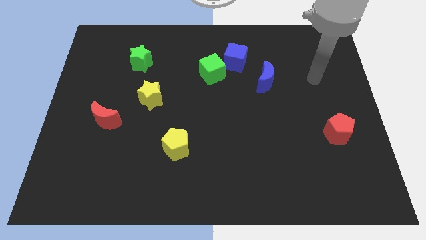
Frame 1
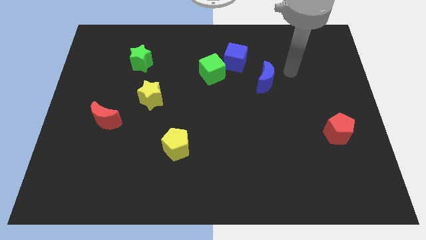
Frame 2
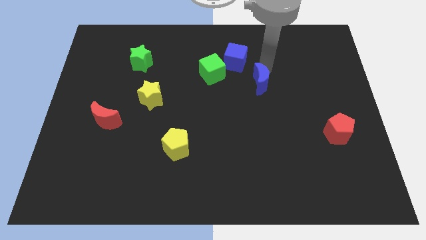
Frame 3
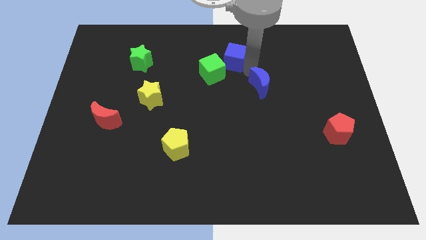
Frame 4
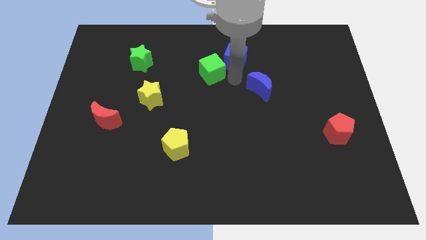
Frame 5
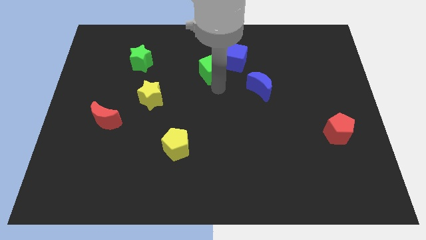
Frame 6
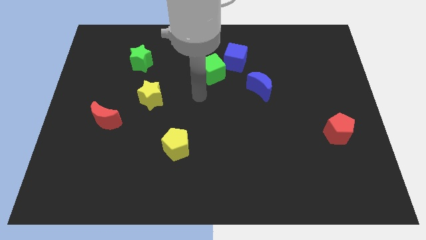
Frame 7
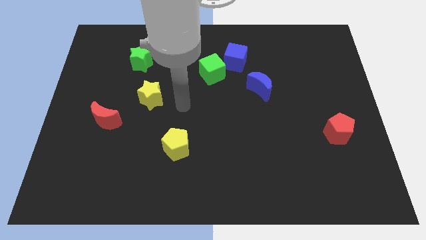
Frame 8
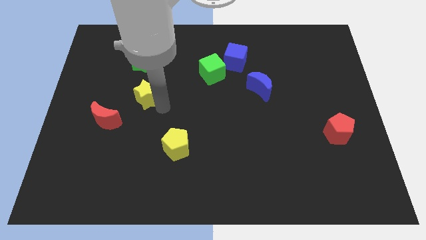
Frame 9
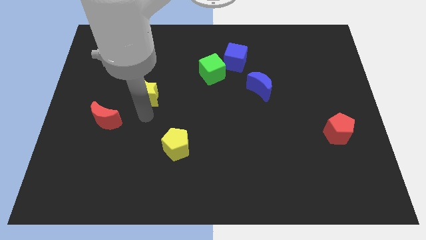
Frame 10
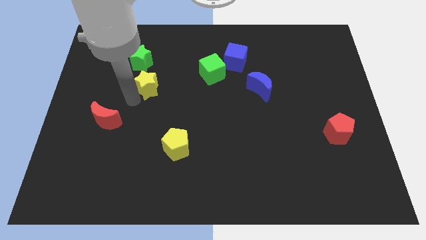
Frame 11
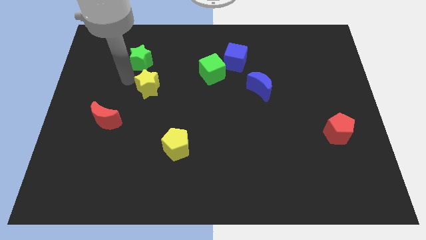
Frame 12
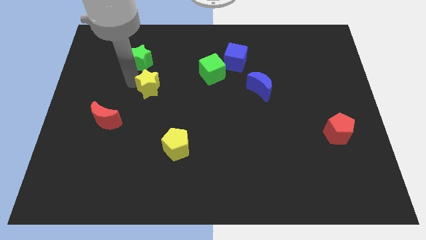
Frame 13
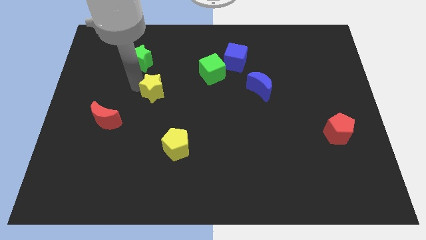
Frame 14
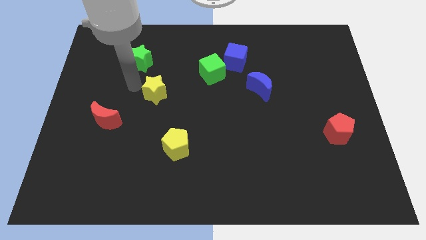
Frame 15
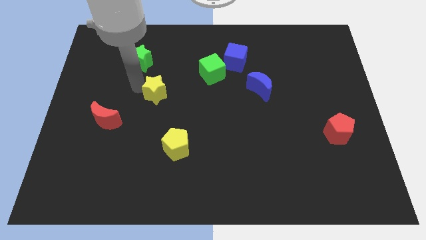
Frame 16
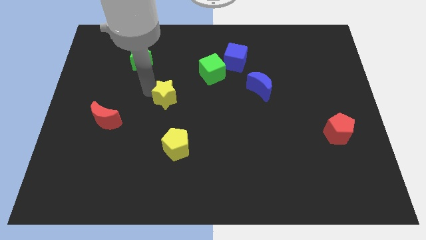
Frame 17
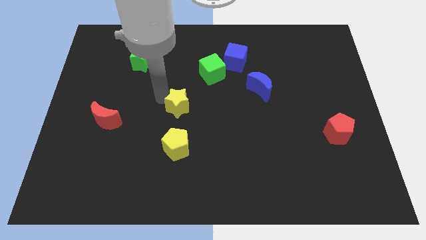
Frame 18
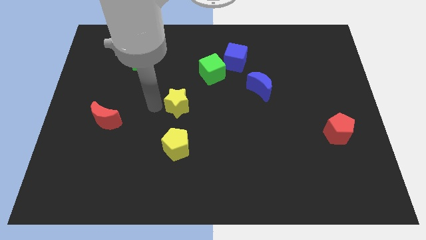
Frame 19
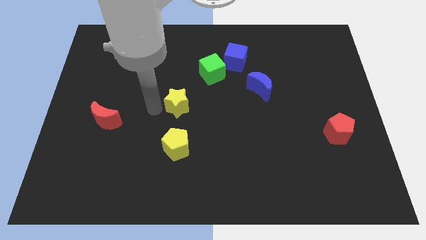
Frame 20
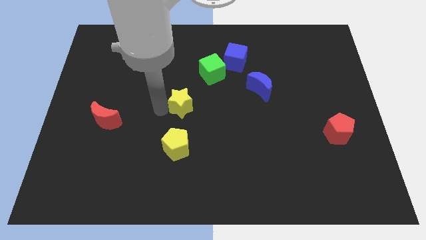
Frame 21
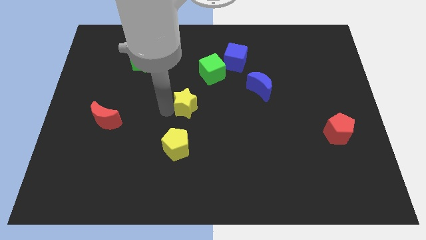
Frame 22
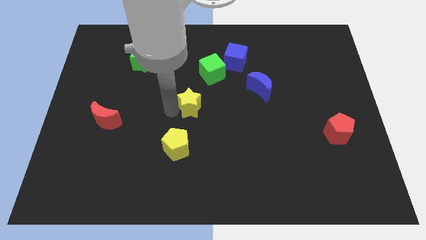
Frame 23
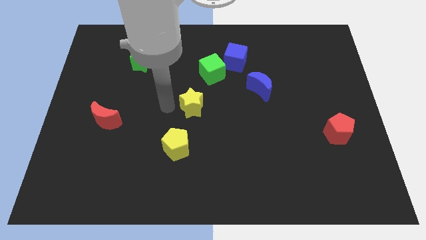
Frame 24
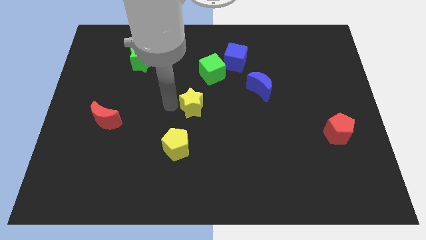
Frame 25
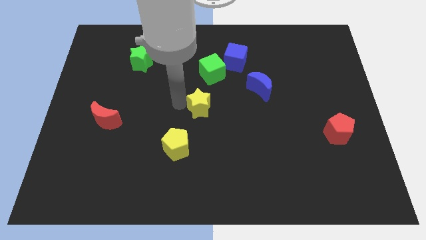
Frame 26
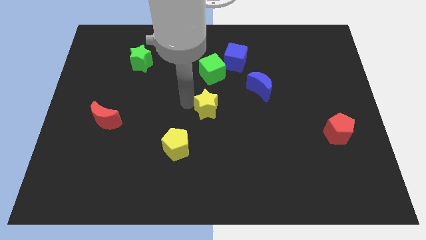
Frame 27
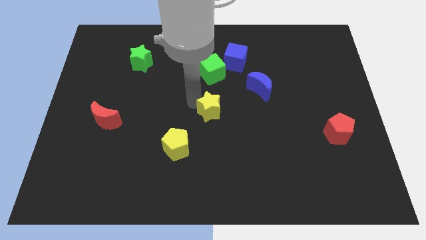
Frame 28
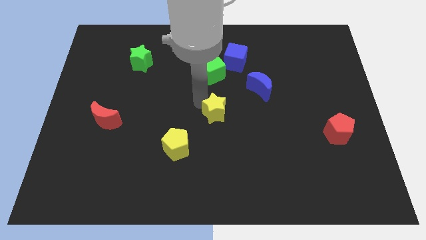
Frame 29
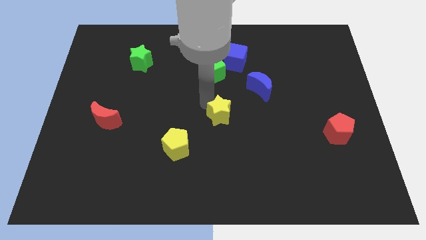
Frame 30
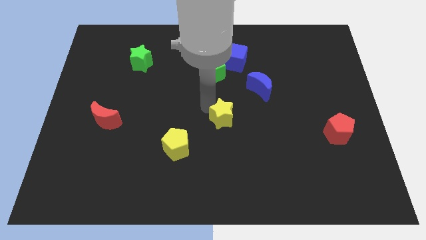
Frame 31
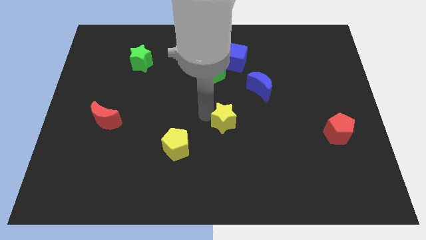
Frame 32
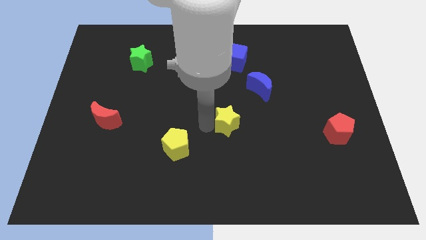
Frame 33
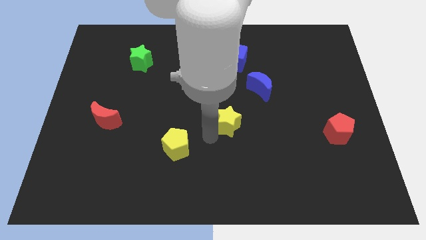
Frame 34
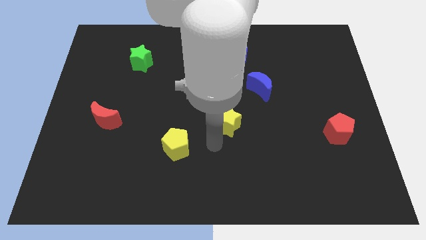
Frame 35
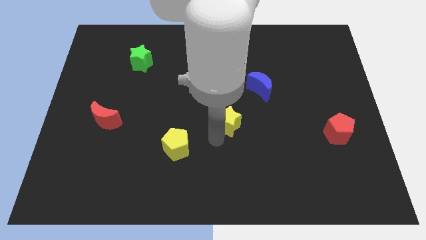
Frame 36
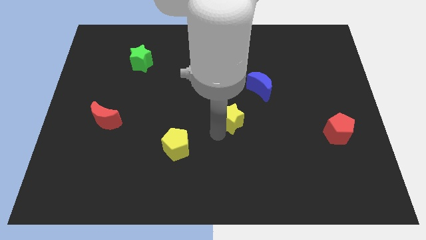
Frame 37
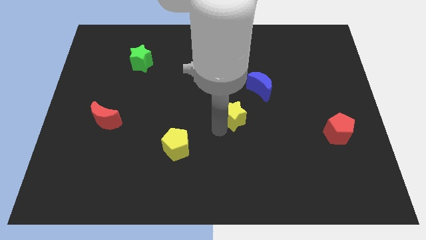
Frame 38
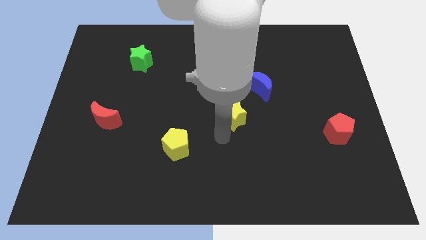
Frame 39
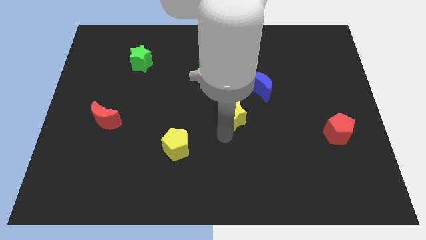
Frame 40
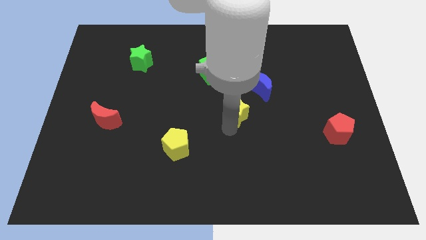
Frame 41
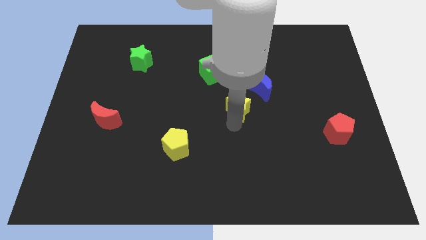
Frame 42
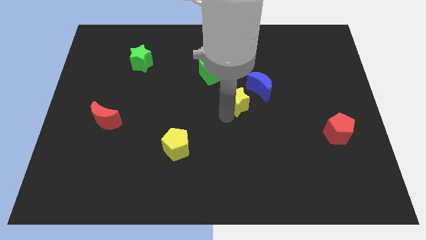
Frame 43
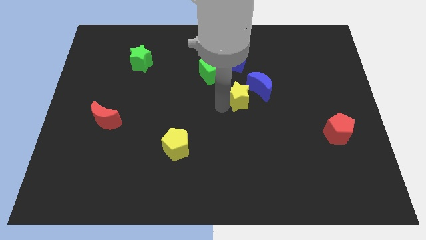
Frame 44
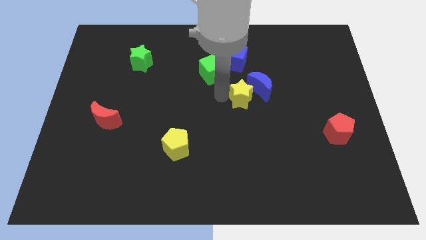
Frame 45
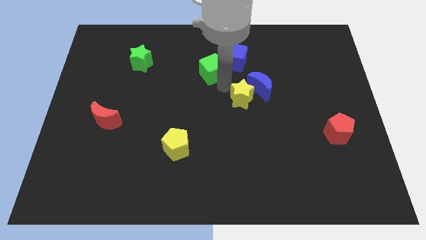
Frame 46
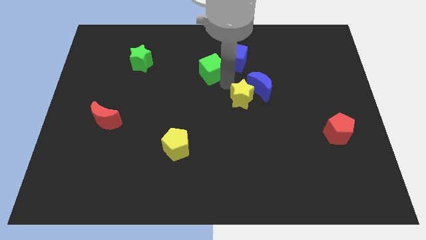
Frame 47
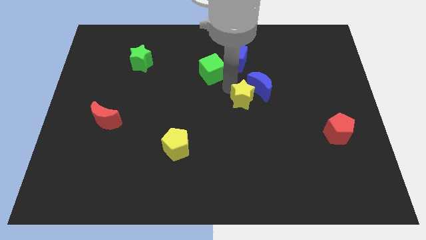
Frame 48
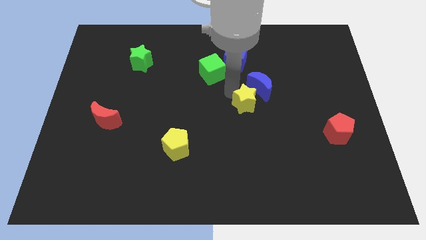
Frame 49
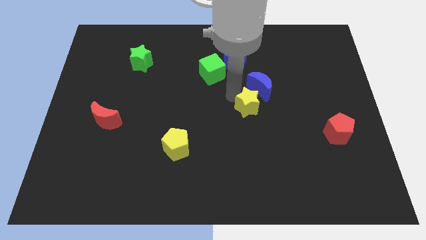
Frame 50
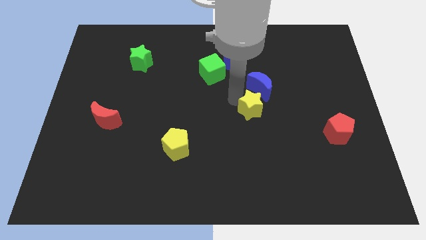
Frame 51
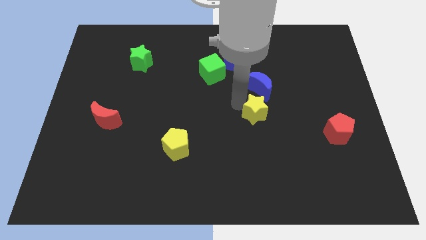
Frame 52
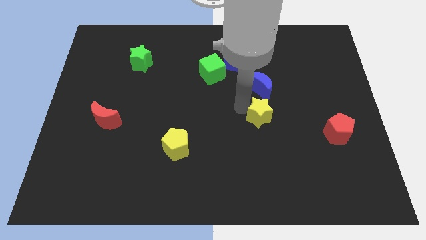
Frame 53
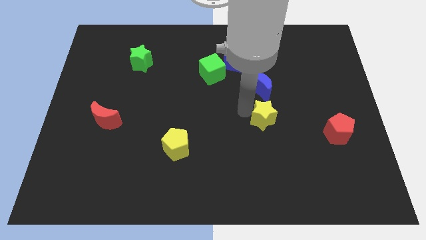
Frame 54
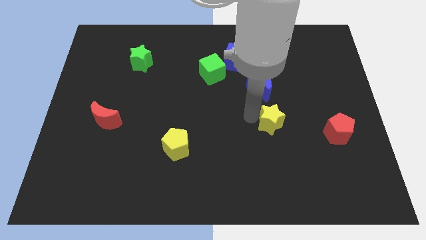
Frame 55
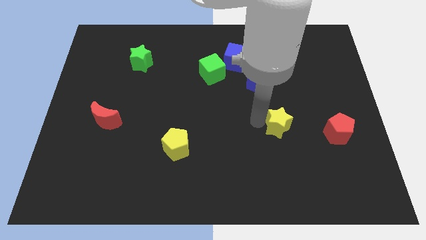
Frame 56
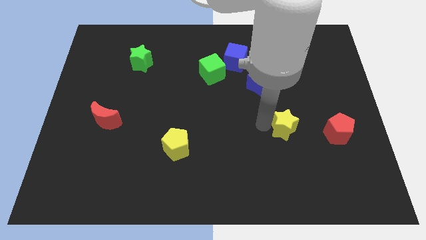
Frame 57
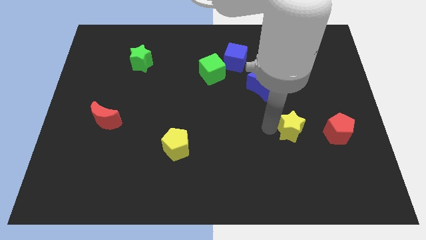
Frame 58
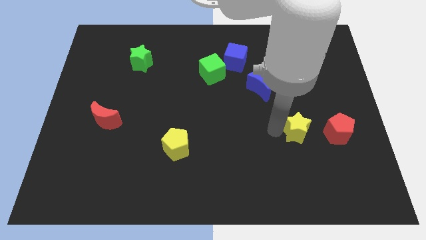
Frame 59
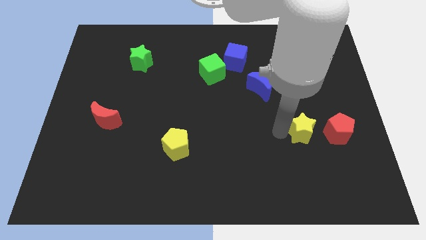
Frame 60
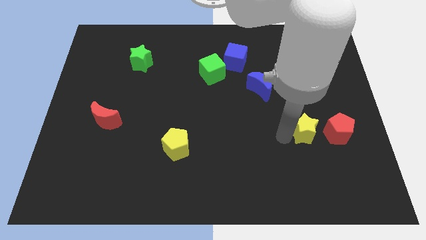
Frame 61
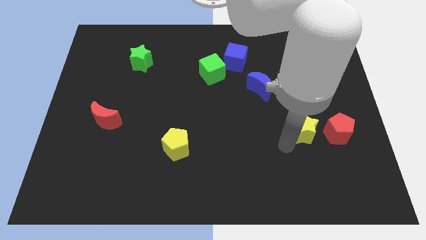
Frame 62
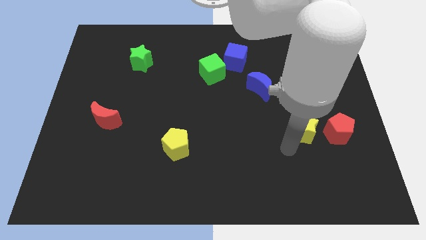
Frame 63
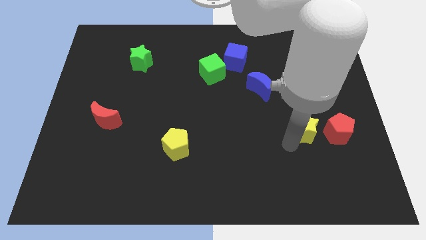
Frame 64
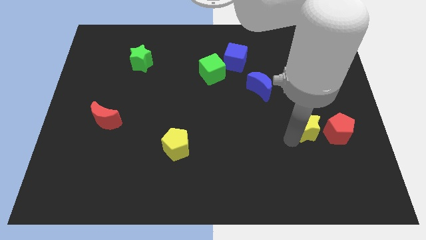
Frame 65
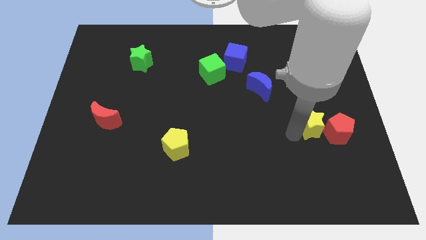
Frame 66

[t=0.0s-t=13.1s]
slide the yellow star to the red pentagon
